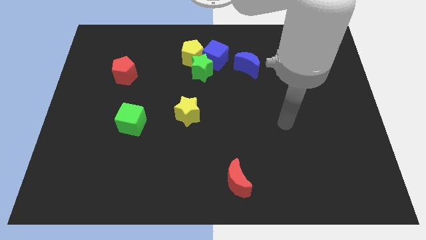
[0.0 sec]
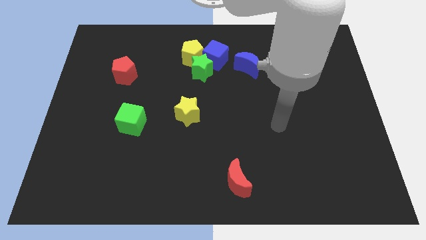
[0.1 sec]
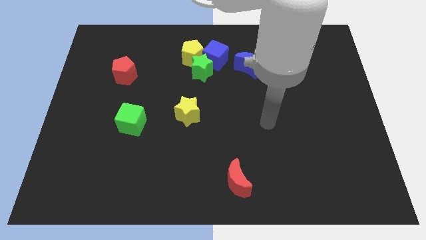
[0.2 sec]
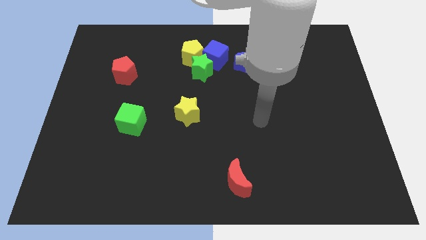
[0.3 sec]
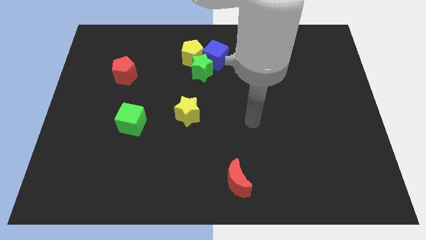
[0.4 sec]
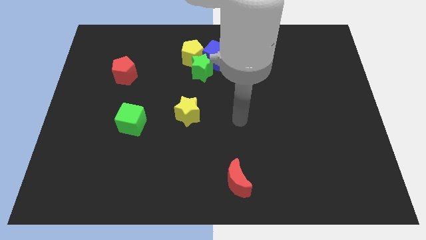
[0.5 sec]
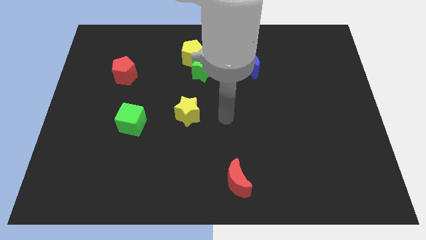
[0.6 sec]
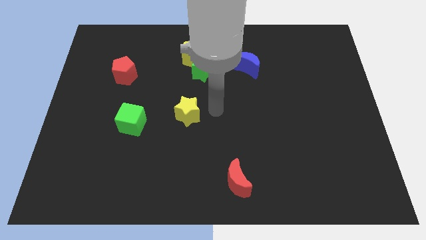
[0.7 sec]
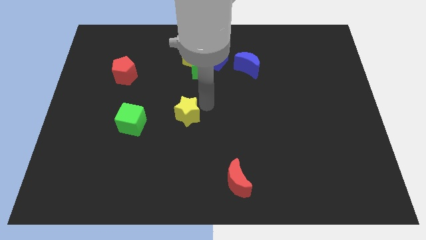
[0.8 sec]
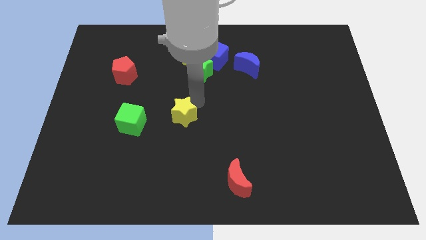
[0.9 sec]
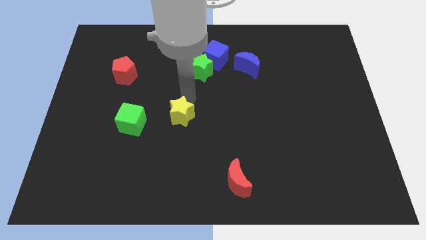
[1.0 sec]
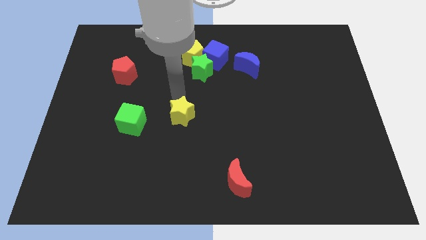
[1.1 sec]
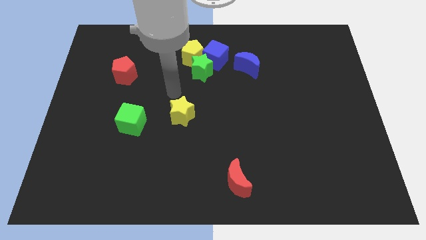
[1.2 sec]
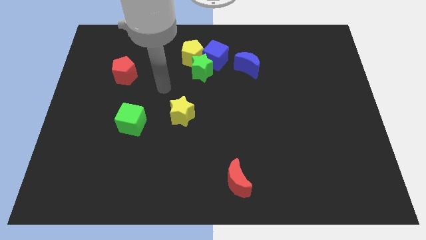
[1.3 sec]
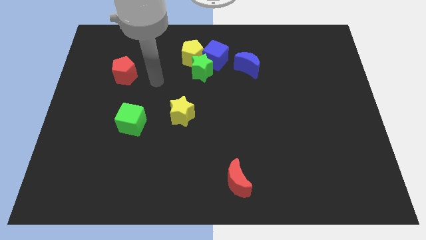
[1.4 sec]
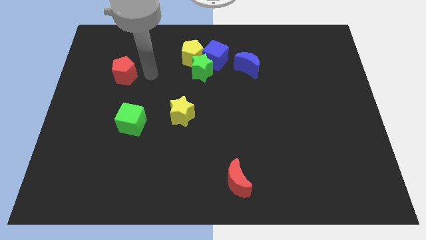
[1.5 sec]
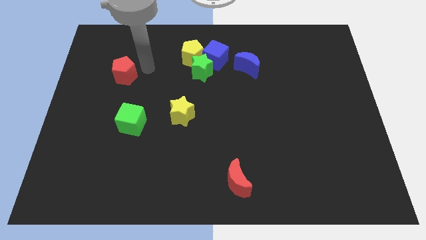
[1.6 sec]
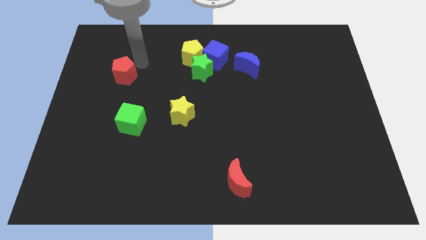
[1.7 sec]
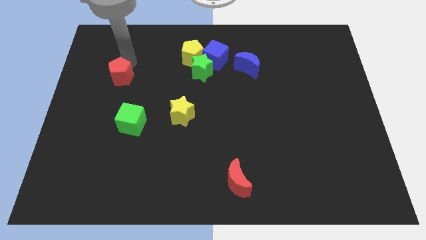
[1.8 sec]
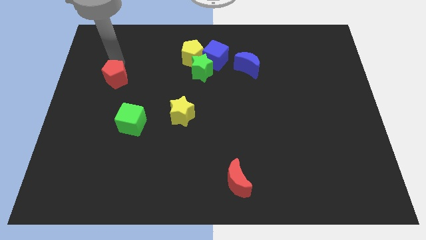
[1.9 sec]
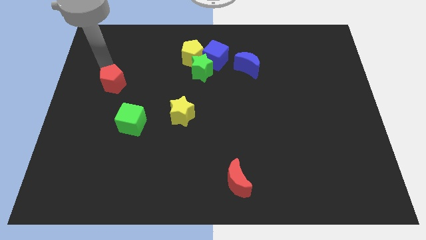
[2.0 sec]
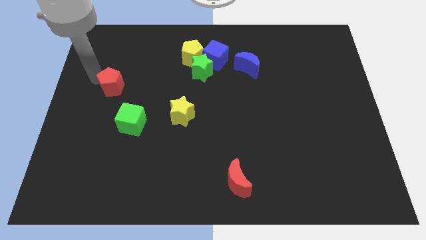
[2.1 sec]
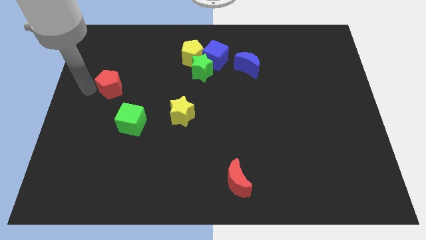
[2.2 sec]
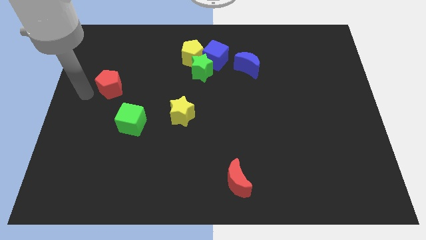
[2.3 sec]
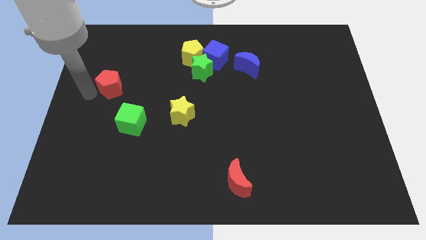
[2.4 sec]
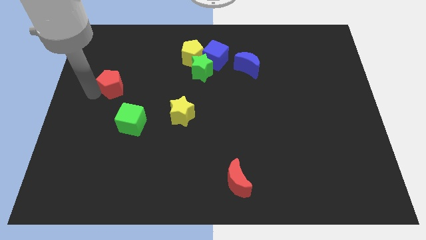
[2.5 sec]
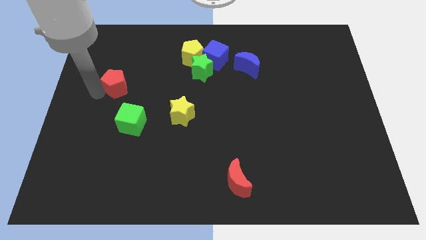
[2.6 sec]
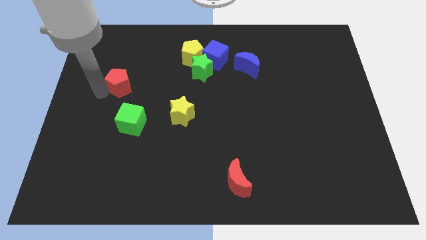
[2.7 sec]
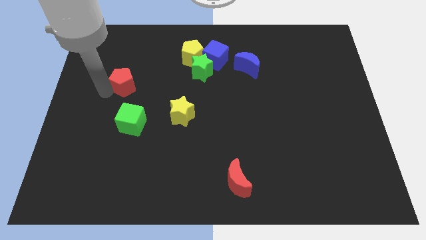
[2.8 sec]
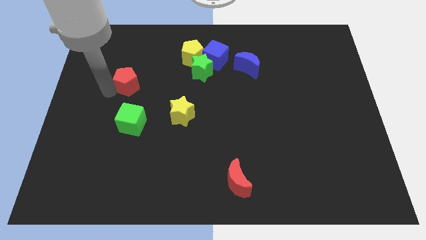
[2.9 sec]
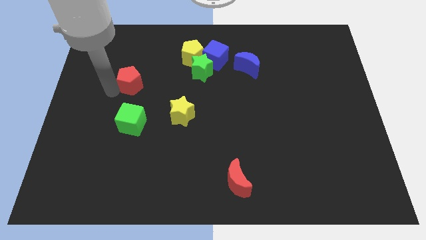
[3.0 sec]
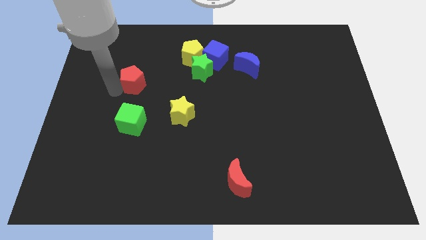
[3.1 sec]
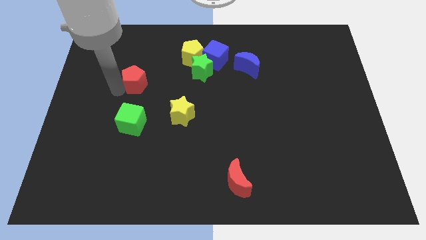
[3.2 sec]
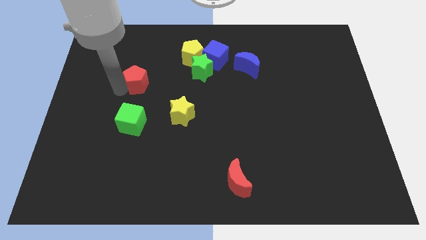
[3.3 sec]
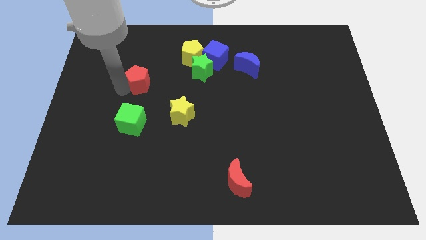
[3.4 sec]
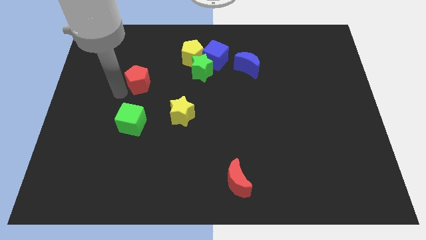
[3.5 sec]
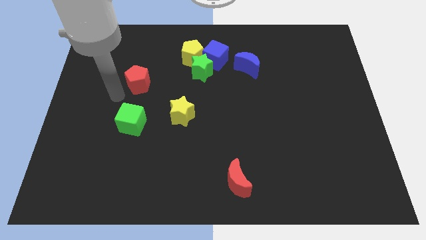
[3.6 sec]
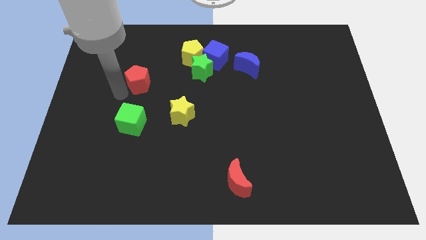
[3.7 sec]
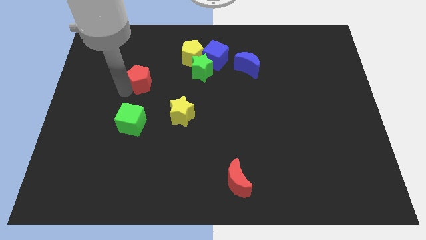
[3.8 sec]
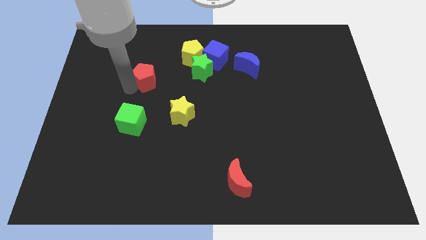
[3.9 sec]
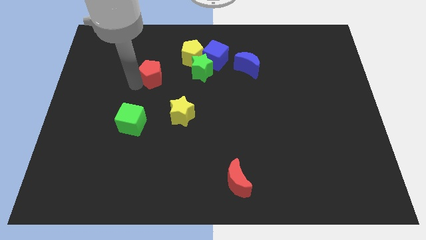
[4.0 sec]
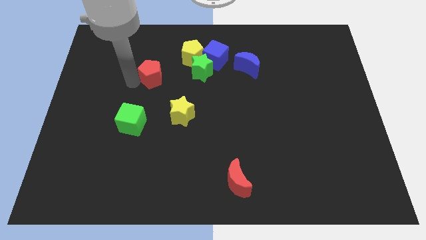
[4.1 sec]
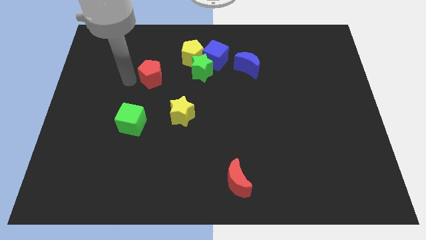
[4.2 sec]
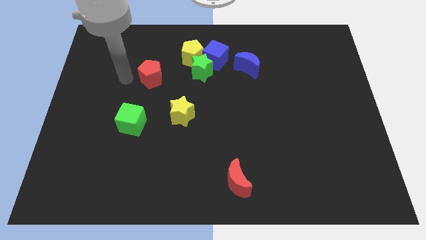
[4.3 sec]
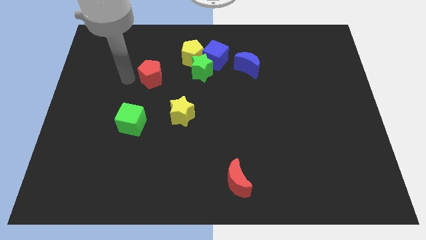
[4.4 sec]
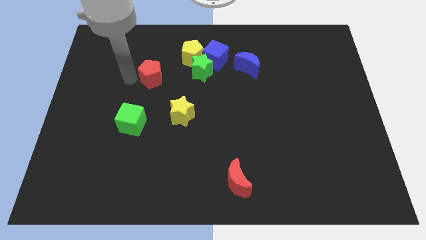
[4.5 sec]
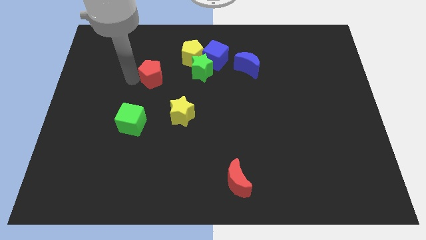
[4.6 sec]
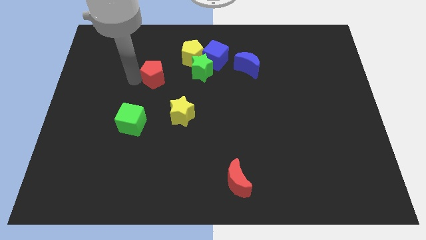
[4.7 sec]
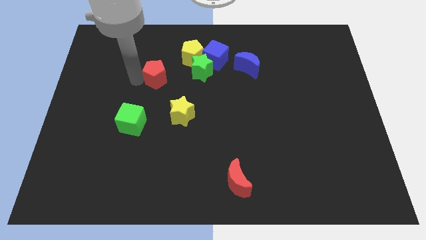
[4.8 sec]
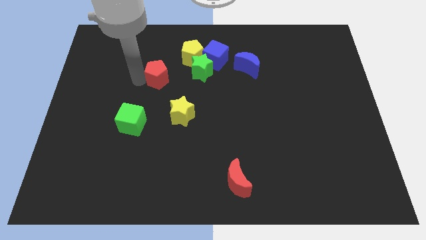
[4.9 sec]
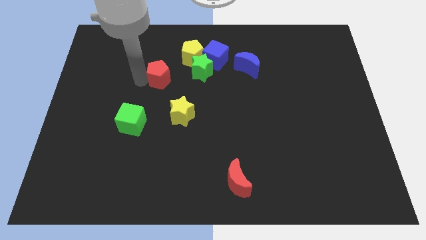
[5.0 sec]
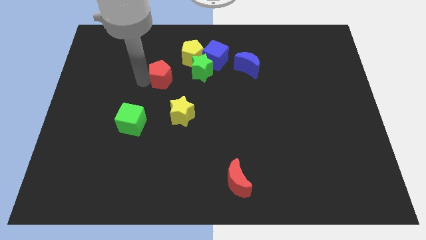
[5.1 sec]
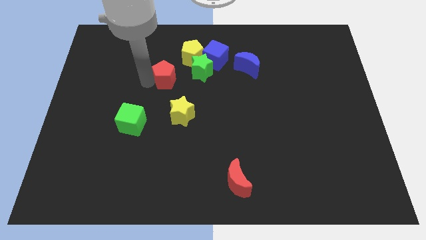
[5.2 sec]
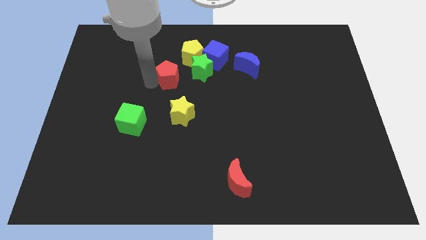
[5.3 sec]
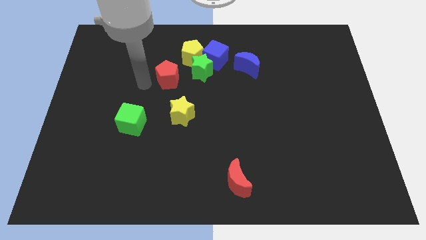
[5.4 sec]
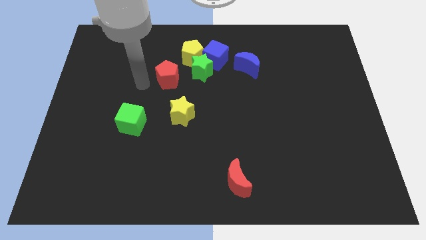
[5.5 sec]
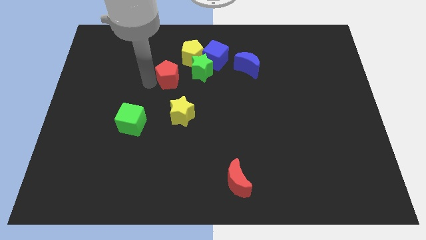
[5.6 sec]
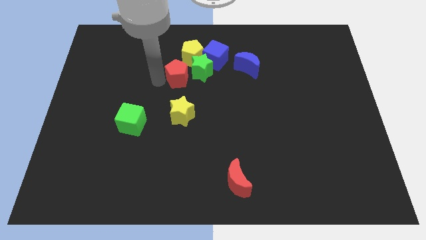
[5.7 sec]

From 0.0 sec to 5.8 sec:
push the red pentagon towards the green star

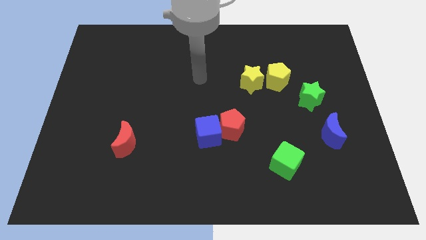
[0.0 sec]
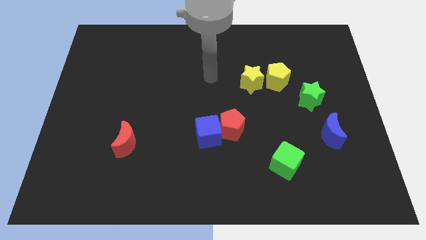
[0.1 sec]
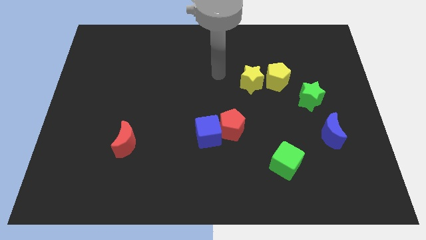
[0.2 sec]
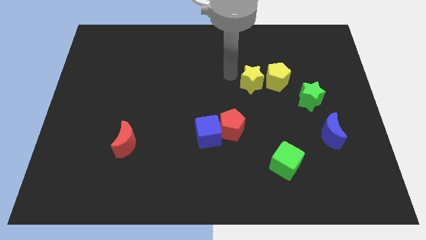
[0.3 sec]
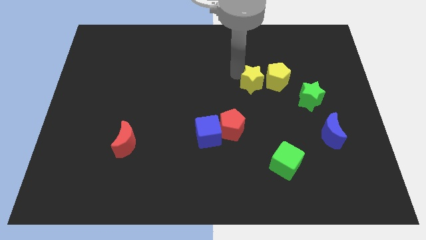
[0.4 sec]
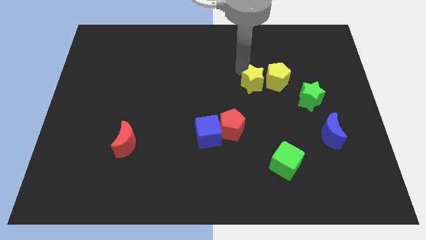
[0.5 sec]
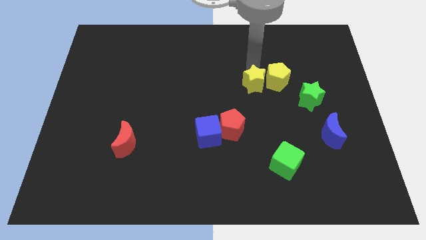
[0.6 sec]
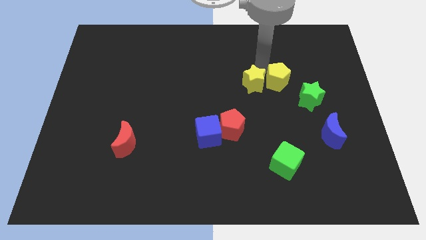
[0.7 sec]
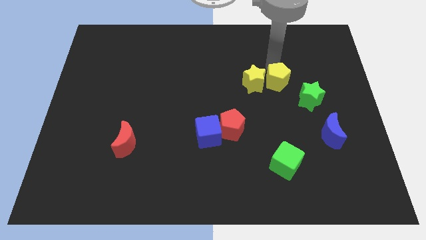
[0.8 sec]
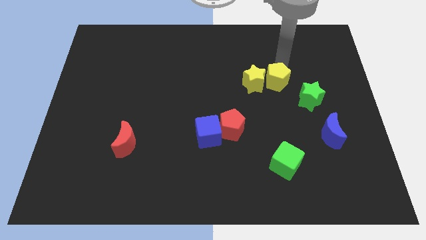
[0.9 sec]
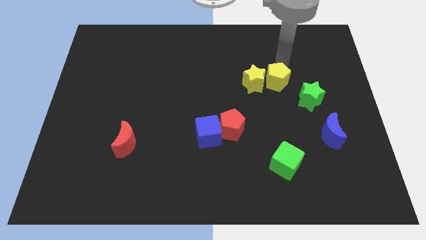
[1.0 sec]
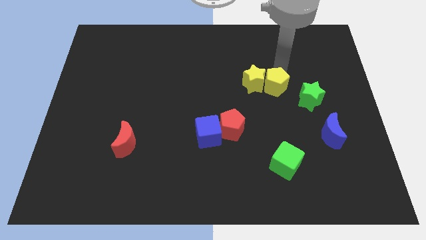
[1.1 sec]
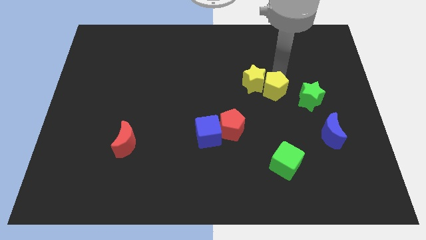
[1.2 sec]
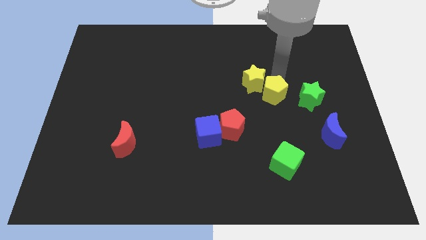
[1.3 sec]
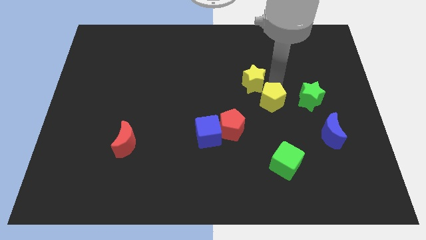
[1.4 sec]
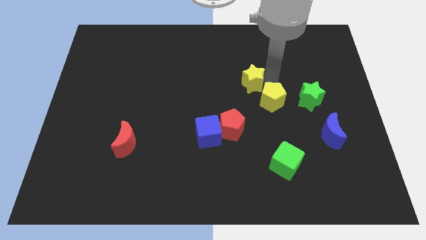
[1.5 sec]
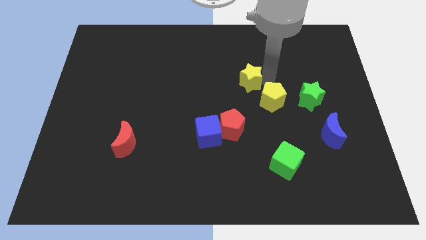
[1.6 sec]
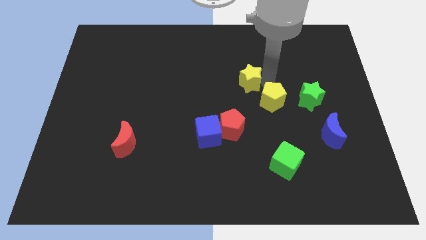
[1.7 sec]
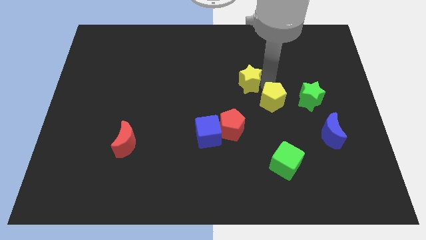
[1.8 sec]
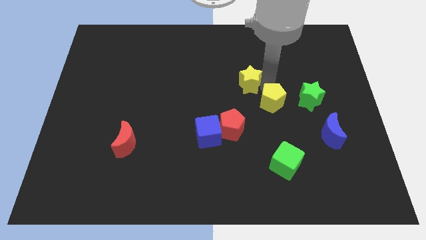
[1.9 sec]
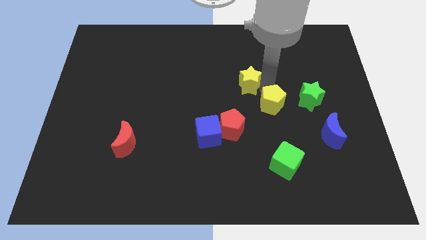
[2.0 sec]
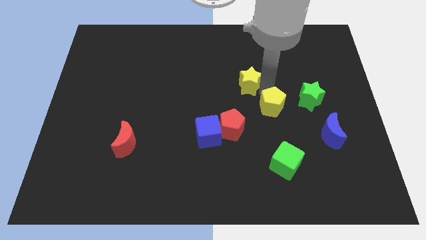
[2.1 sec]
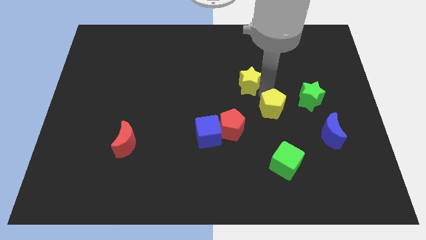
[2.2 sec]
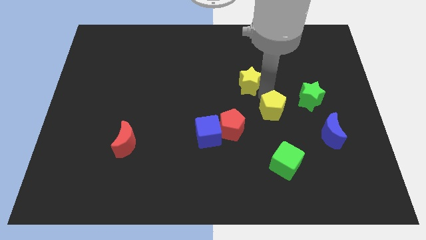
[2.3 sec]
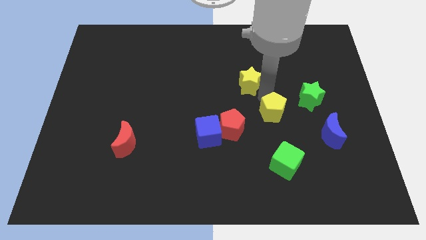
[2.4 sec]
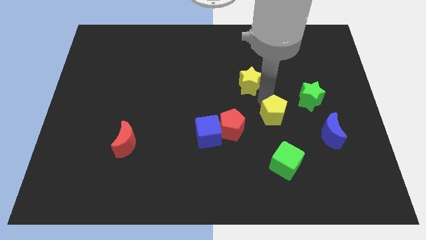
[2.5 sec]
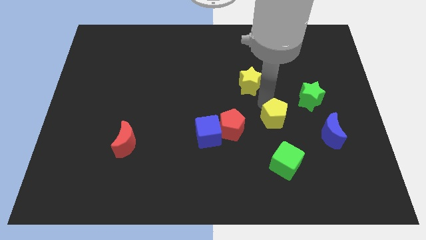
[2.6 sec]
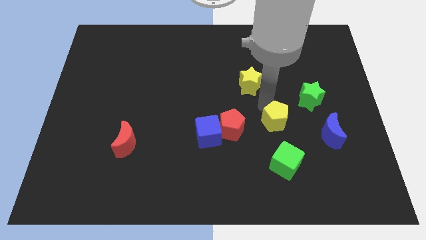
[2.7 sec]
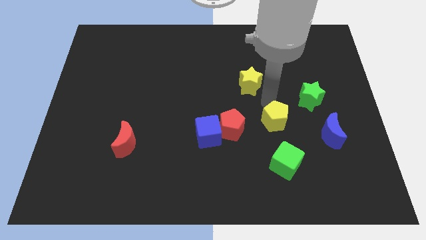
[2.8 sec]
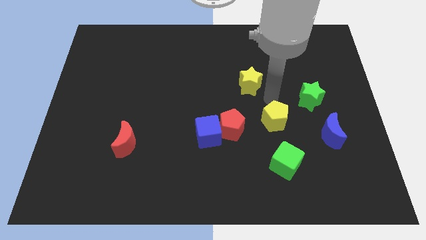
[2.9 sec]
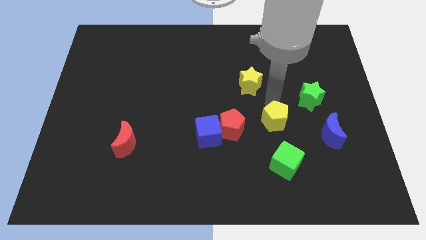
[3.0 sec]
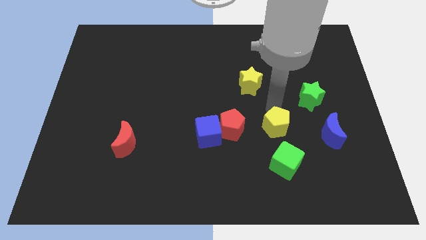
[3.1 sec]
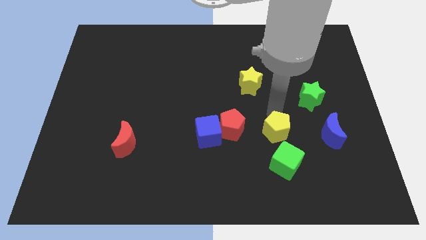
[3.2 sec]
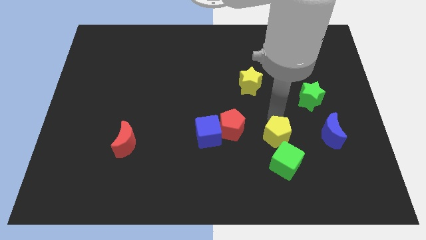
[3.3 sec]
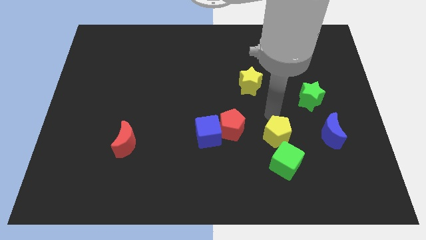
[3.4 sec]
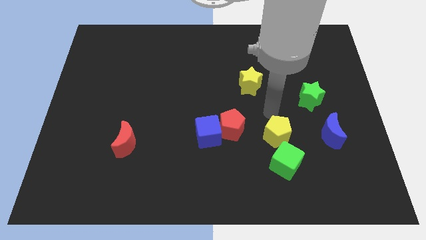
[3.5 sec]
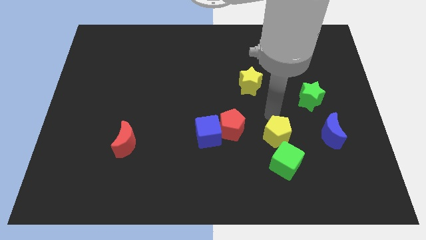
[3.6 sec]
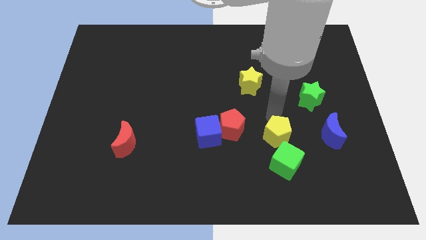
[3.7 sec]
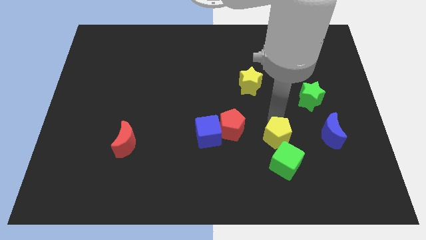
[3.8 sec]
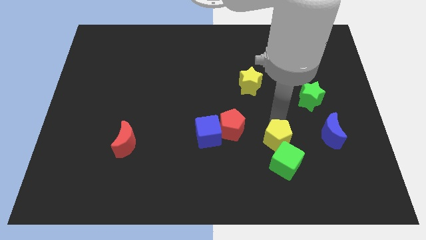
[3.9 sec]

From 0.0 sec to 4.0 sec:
push the yellow pentagon to the green cube
